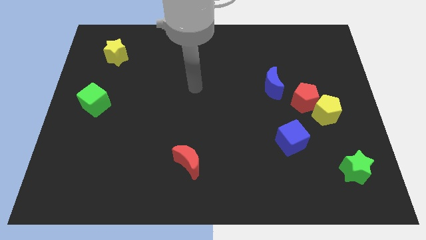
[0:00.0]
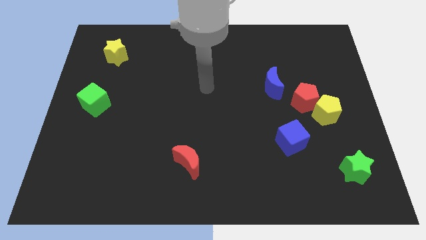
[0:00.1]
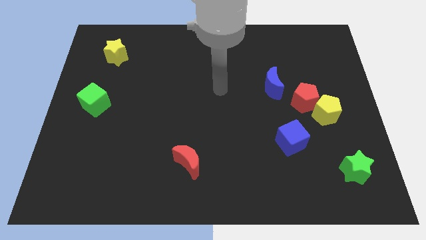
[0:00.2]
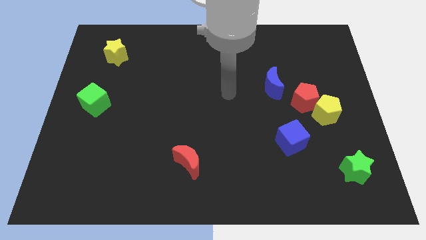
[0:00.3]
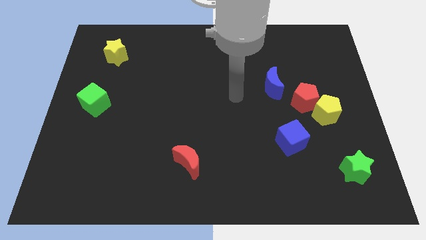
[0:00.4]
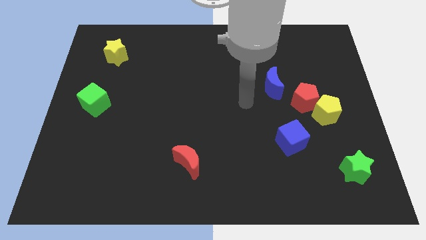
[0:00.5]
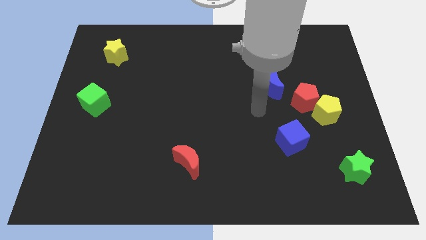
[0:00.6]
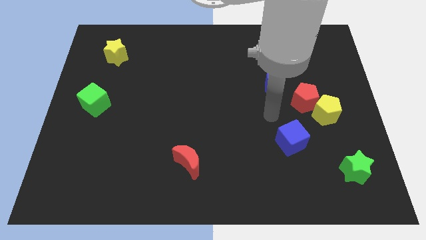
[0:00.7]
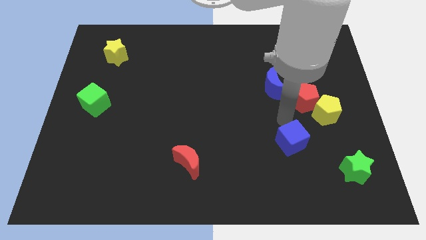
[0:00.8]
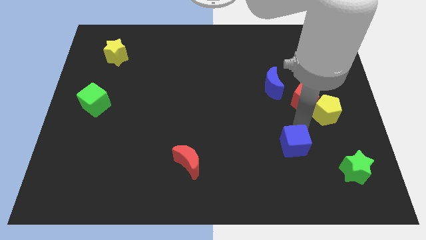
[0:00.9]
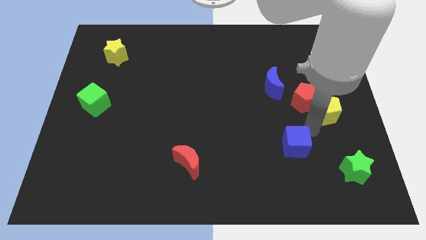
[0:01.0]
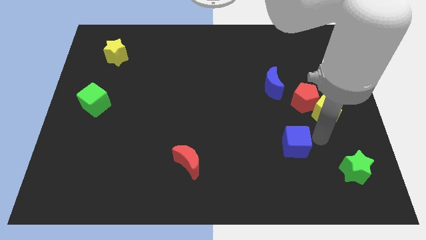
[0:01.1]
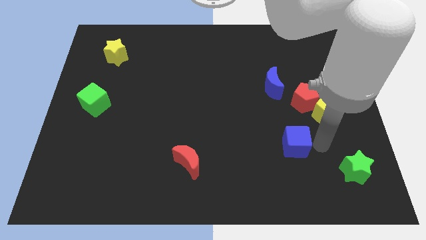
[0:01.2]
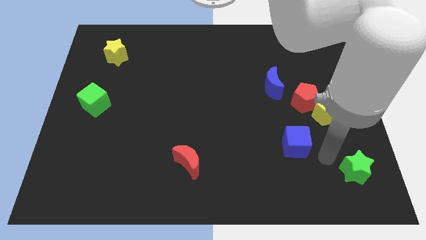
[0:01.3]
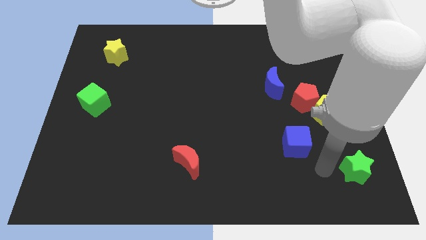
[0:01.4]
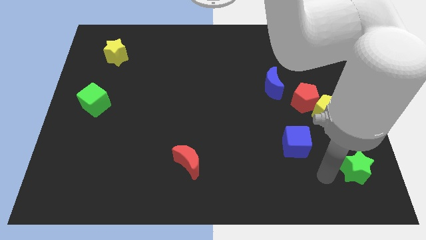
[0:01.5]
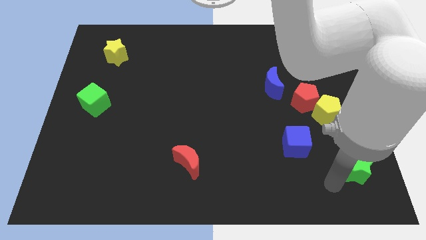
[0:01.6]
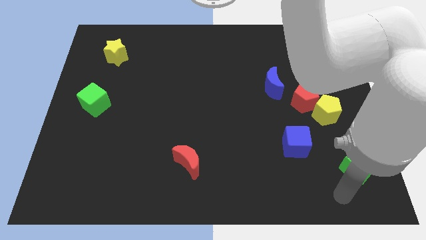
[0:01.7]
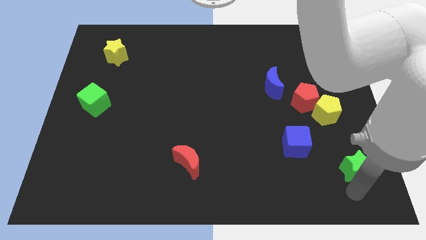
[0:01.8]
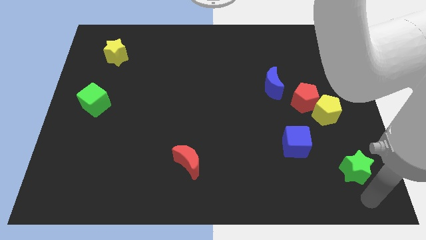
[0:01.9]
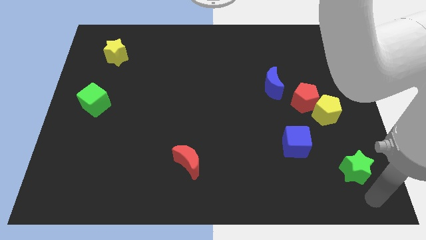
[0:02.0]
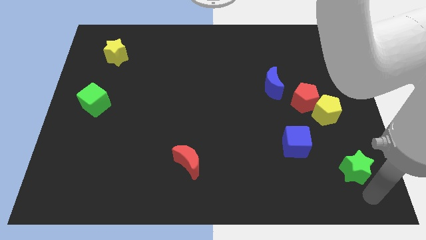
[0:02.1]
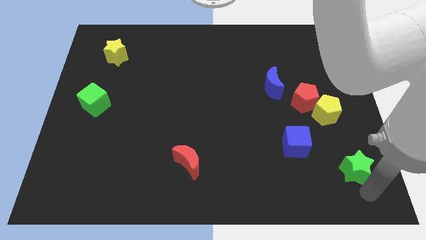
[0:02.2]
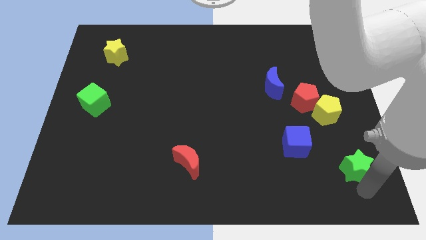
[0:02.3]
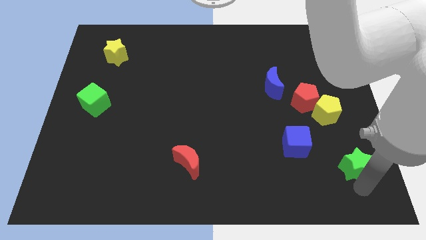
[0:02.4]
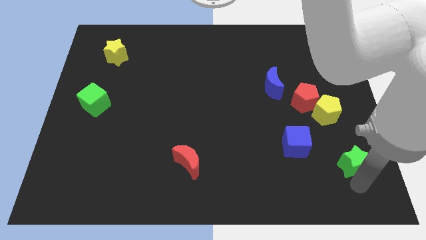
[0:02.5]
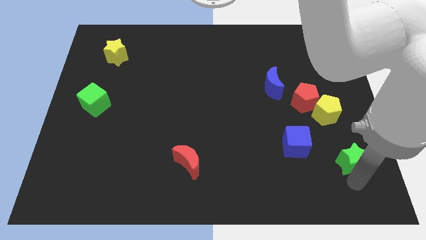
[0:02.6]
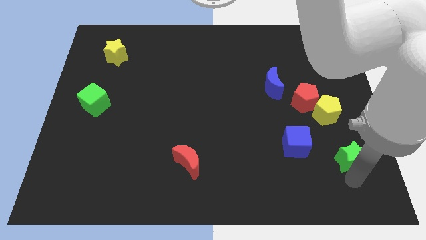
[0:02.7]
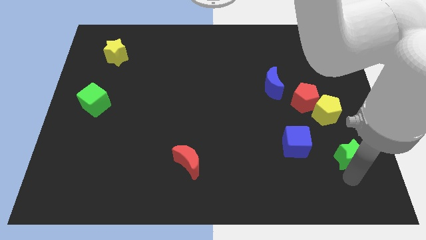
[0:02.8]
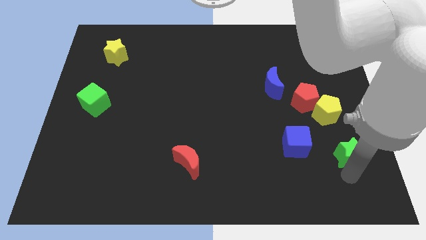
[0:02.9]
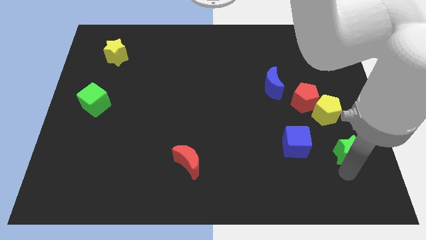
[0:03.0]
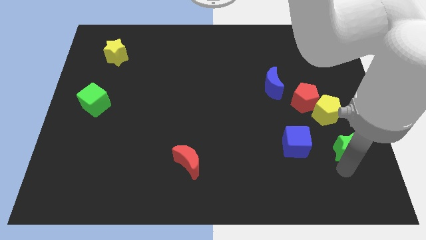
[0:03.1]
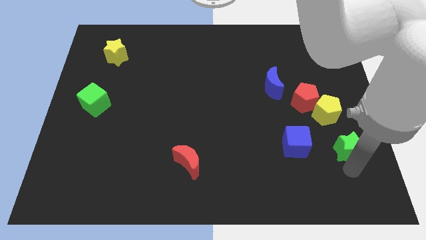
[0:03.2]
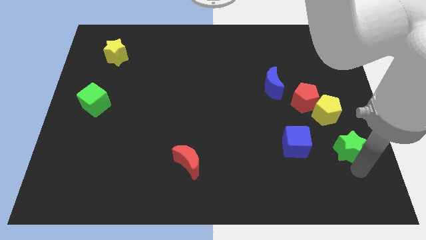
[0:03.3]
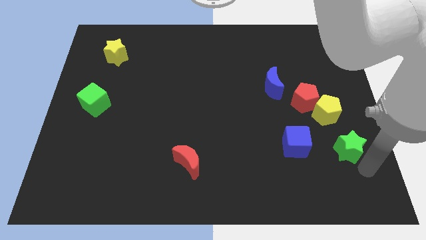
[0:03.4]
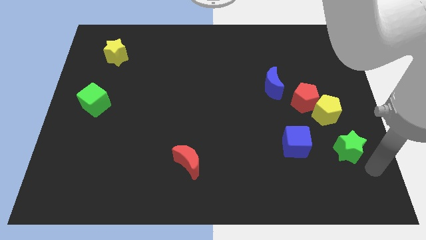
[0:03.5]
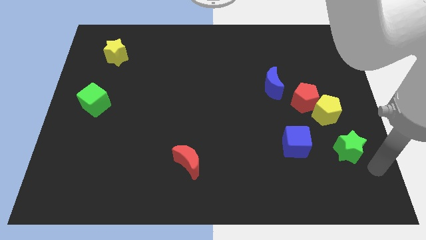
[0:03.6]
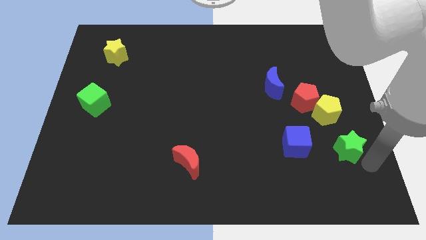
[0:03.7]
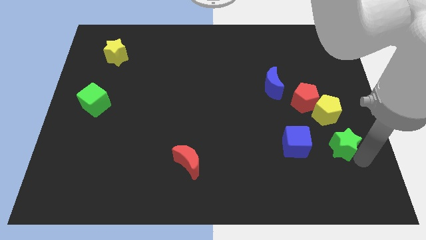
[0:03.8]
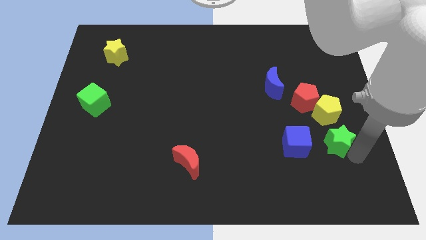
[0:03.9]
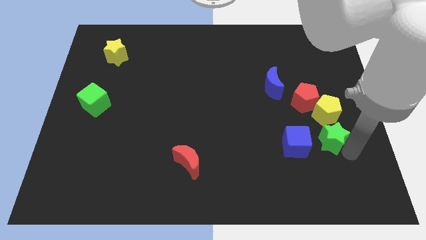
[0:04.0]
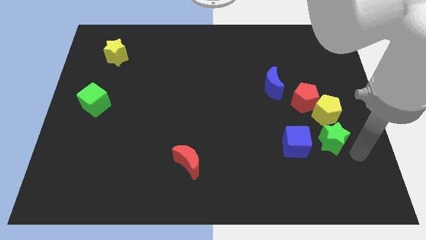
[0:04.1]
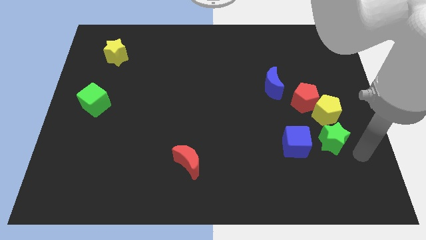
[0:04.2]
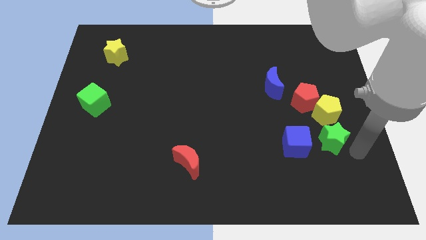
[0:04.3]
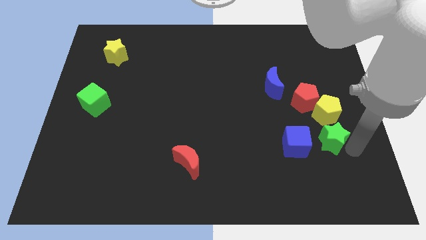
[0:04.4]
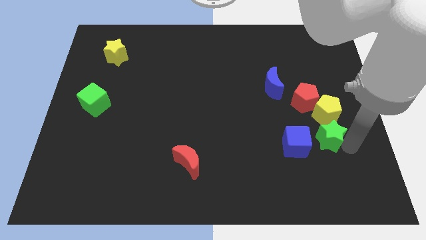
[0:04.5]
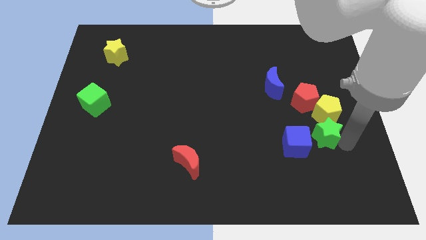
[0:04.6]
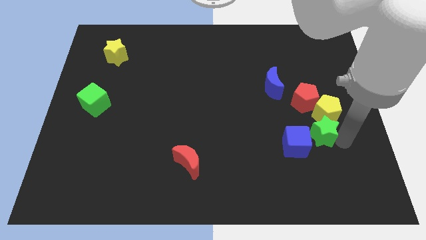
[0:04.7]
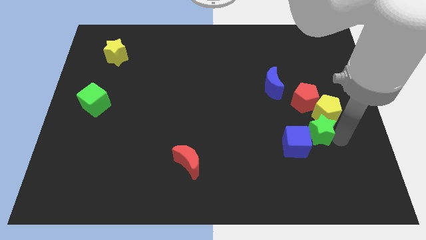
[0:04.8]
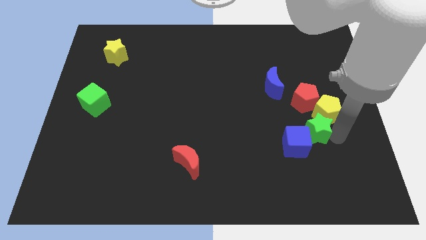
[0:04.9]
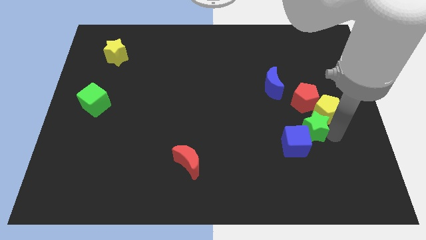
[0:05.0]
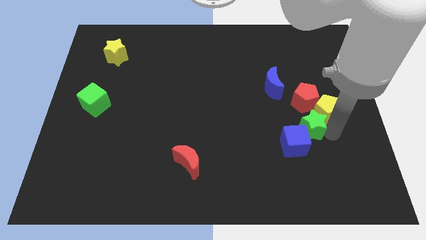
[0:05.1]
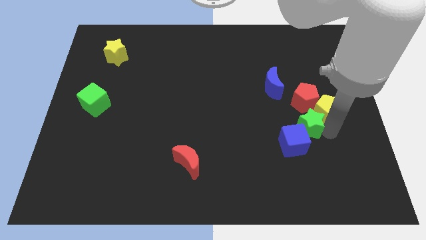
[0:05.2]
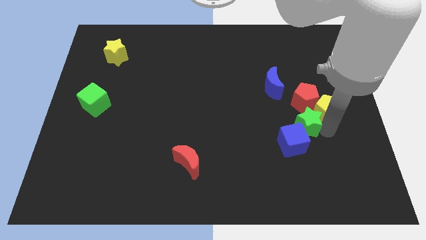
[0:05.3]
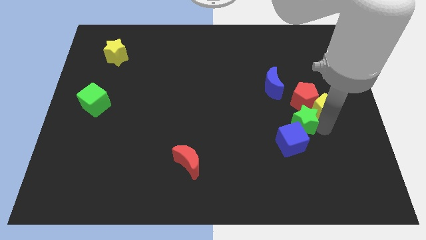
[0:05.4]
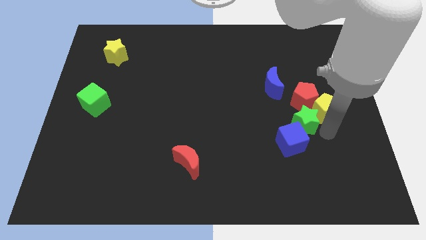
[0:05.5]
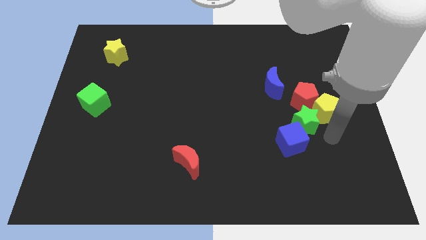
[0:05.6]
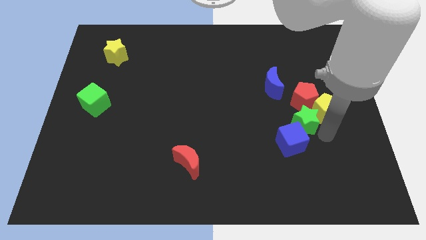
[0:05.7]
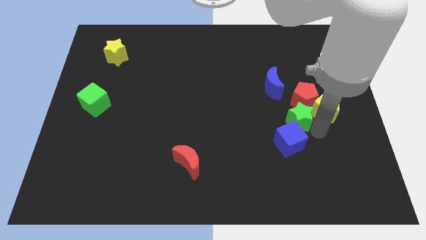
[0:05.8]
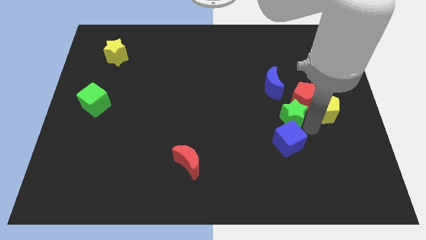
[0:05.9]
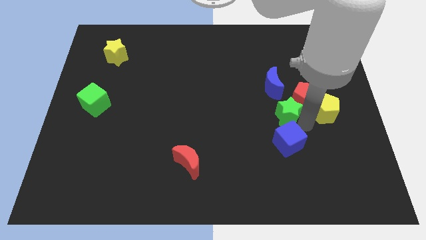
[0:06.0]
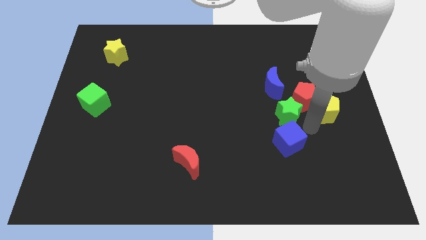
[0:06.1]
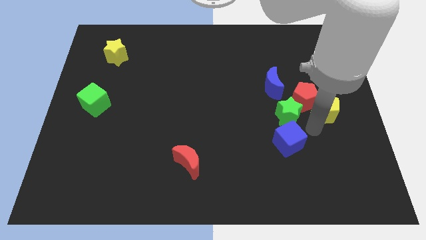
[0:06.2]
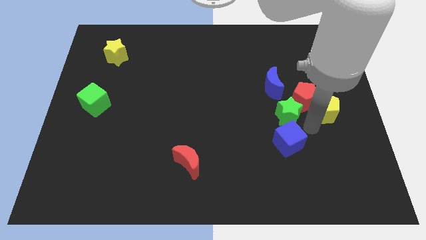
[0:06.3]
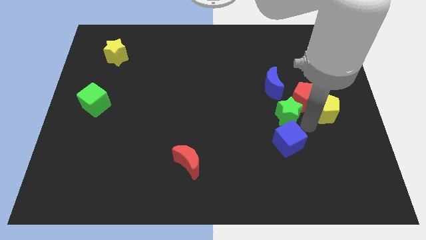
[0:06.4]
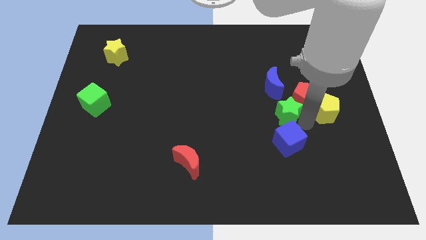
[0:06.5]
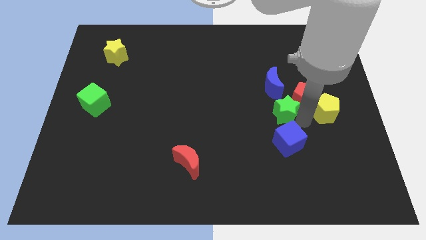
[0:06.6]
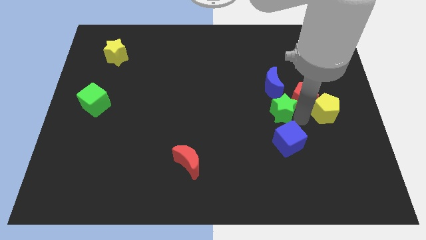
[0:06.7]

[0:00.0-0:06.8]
push the green star up and to the left diagonally

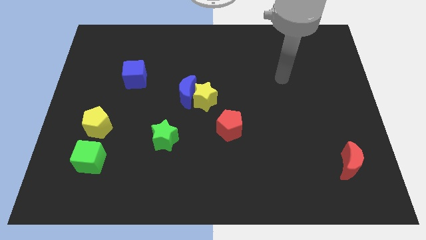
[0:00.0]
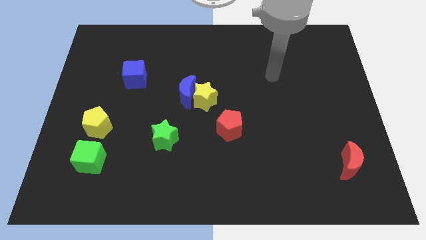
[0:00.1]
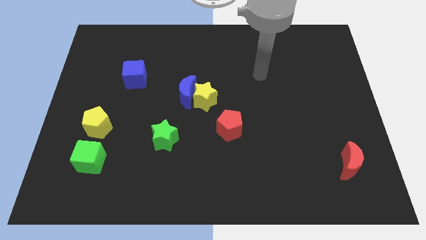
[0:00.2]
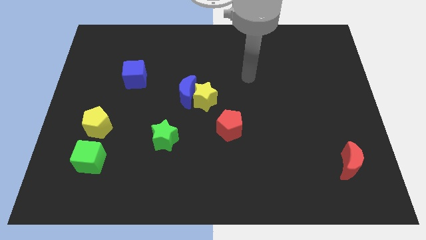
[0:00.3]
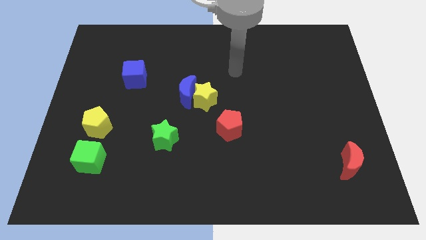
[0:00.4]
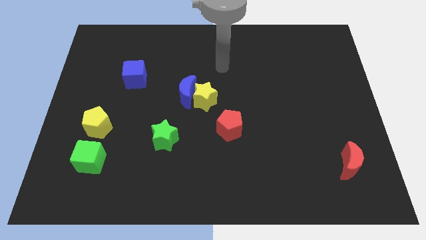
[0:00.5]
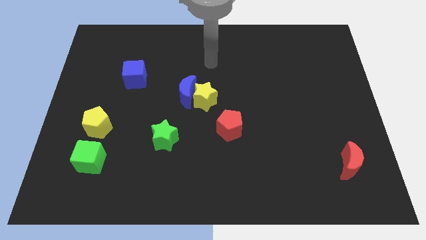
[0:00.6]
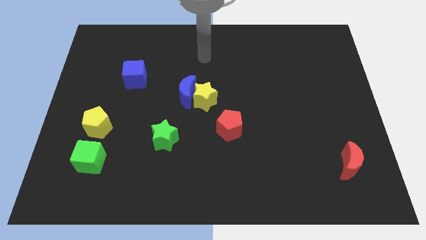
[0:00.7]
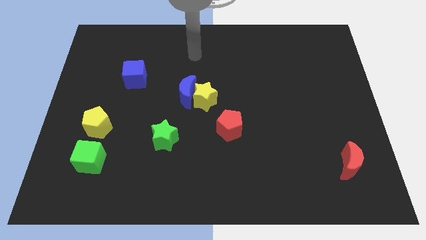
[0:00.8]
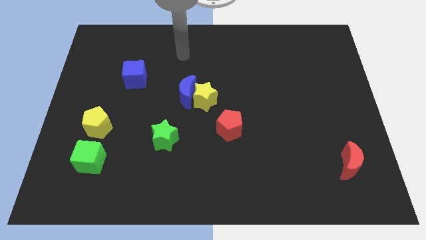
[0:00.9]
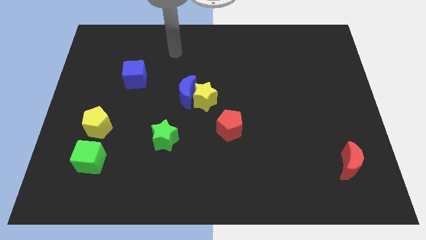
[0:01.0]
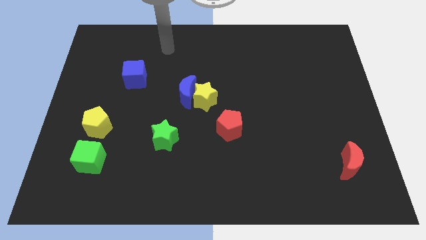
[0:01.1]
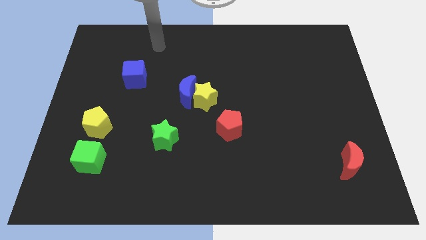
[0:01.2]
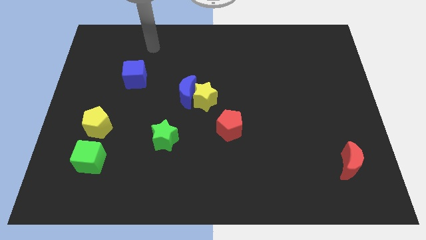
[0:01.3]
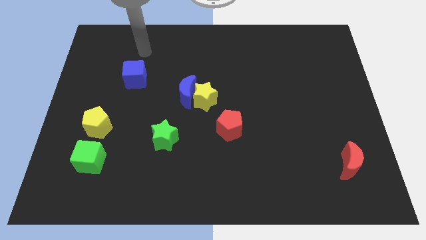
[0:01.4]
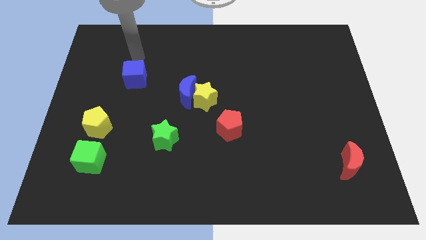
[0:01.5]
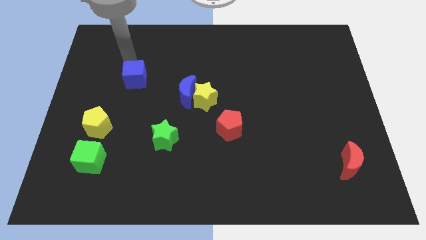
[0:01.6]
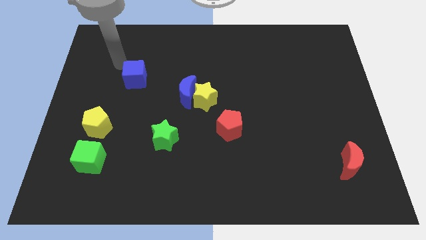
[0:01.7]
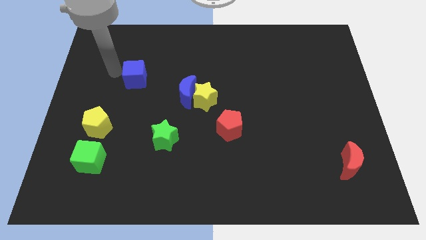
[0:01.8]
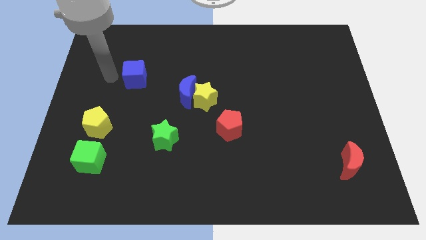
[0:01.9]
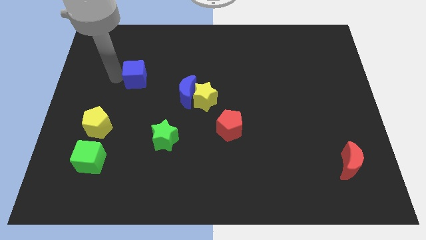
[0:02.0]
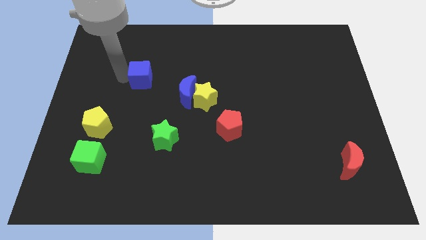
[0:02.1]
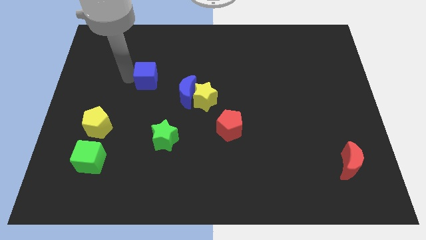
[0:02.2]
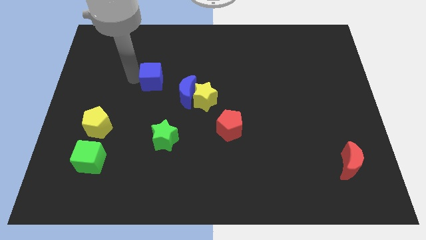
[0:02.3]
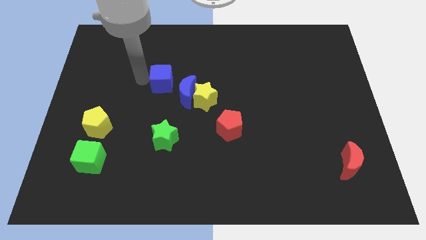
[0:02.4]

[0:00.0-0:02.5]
slide the blue cube to the right a little
